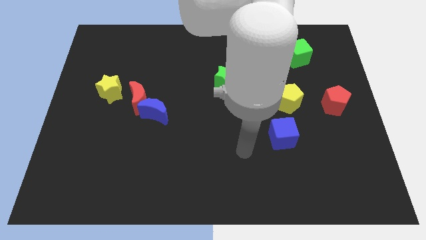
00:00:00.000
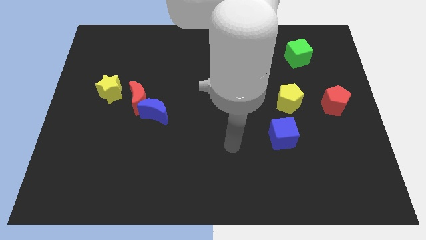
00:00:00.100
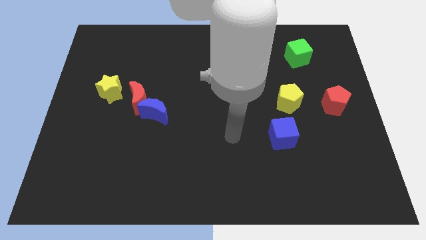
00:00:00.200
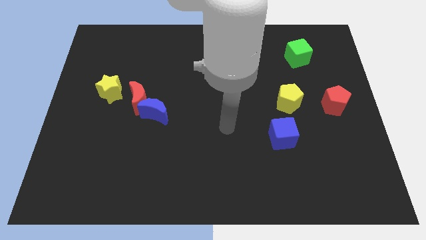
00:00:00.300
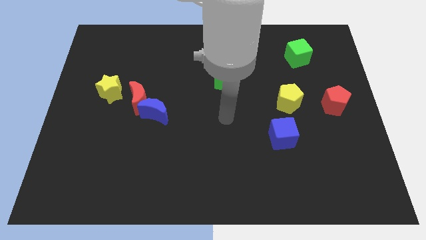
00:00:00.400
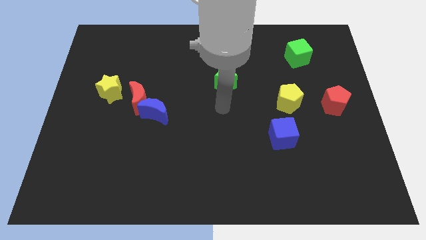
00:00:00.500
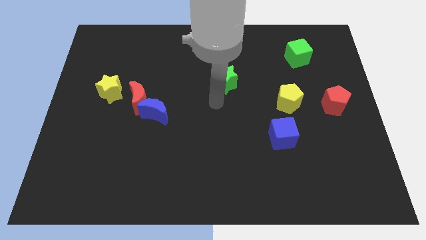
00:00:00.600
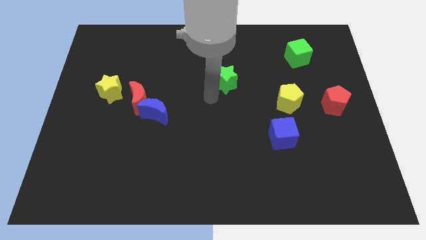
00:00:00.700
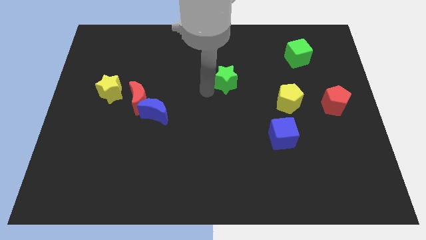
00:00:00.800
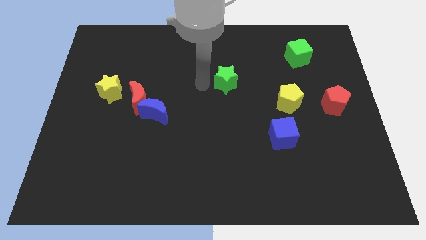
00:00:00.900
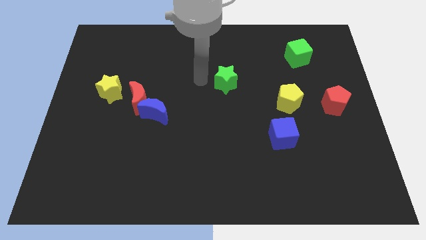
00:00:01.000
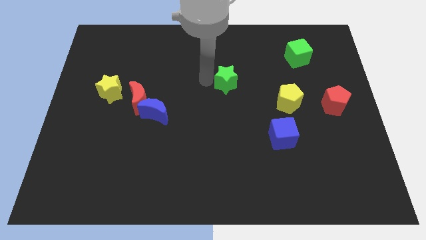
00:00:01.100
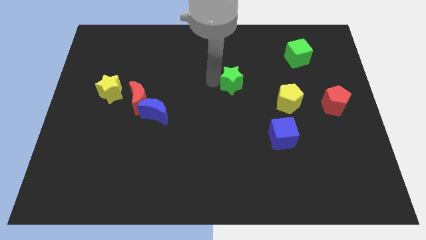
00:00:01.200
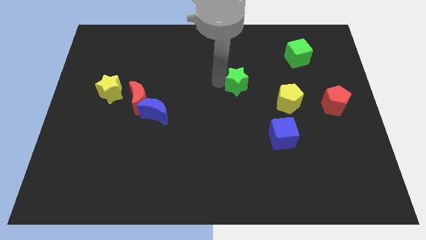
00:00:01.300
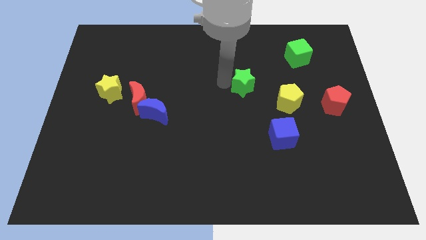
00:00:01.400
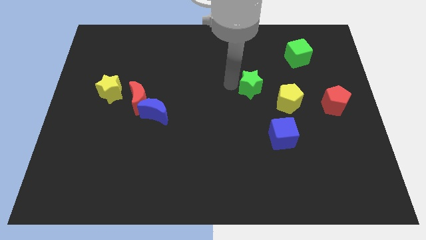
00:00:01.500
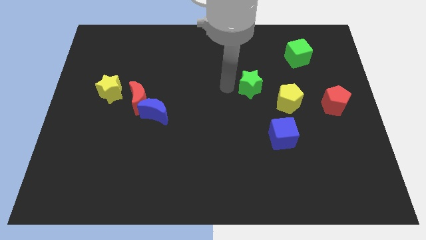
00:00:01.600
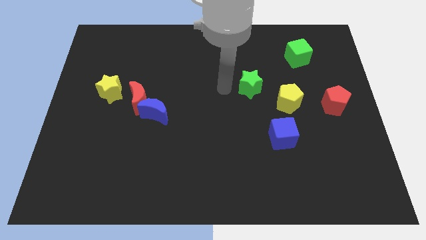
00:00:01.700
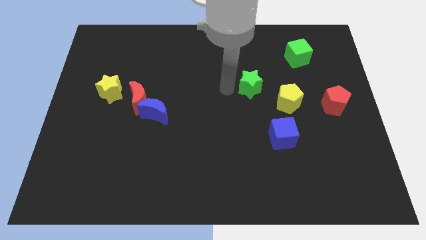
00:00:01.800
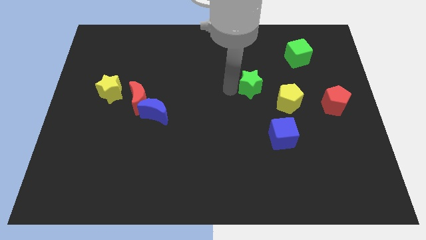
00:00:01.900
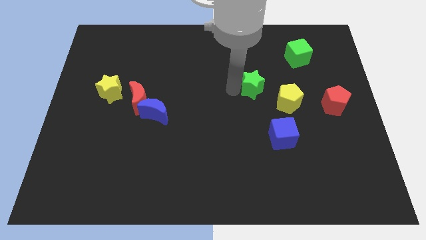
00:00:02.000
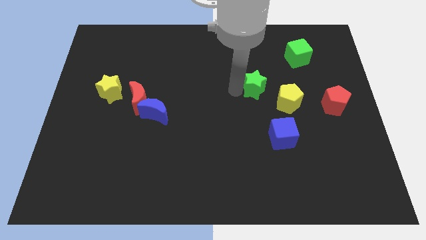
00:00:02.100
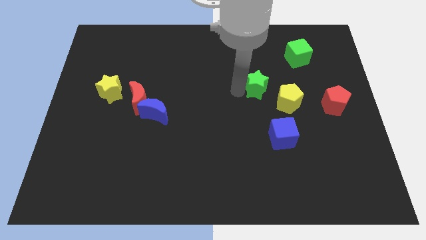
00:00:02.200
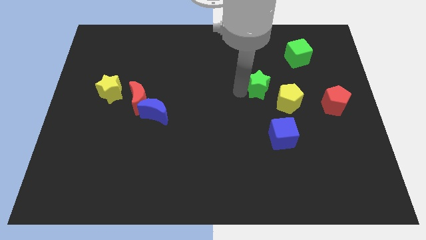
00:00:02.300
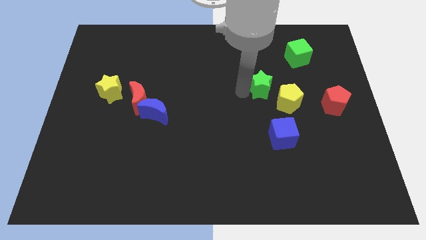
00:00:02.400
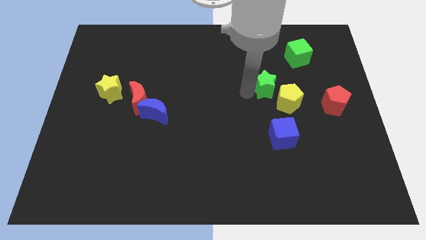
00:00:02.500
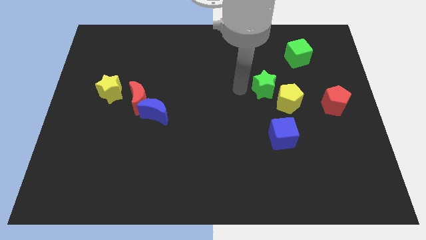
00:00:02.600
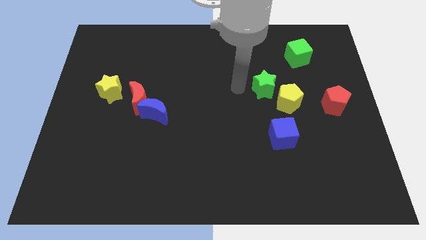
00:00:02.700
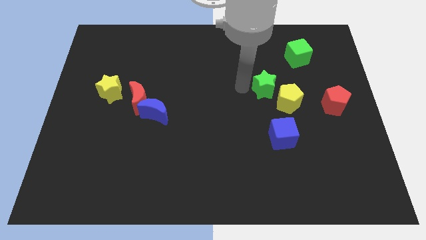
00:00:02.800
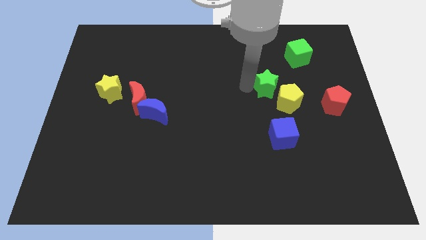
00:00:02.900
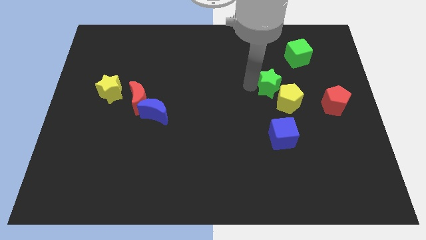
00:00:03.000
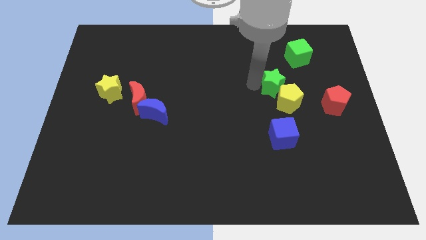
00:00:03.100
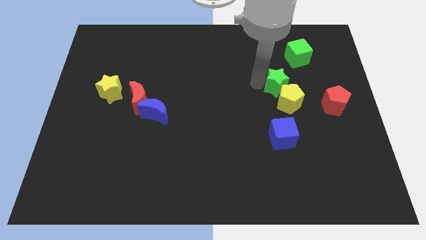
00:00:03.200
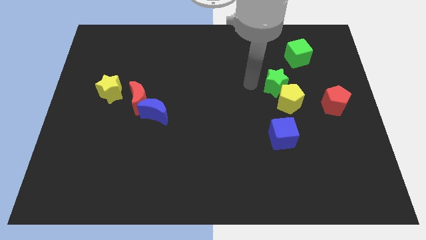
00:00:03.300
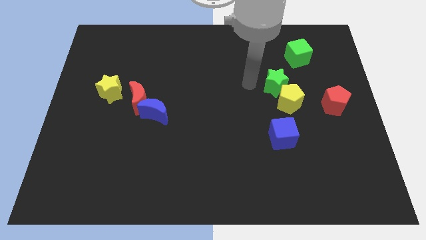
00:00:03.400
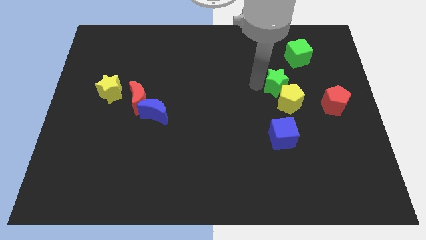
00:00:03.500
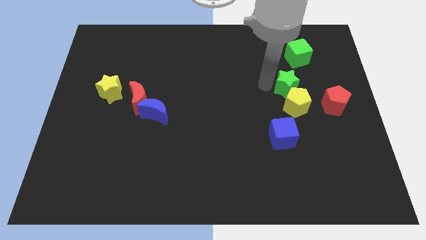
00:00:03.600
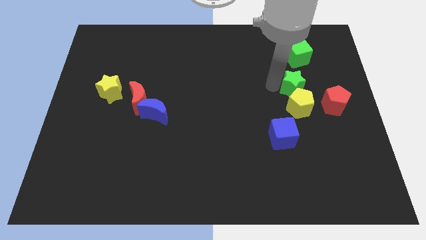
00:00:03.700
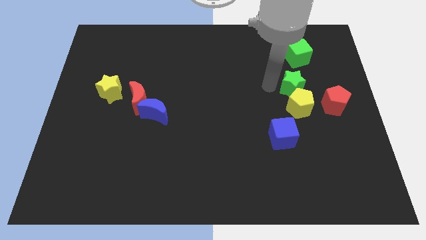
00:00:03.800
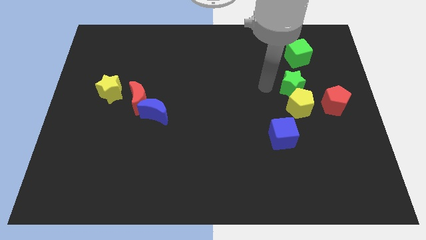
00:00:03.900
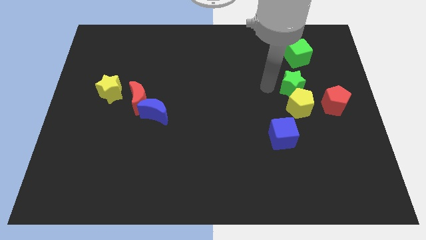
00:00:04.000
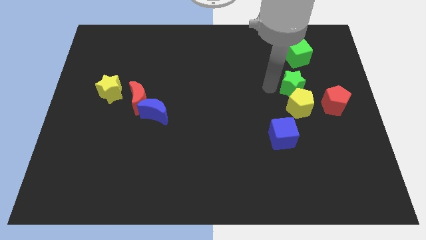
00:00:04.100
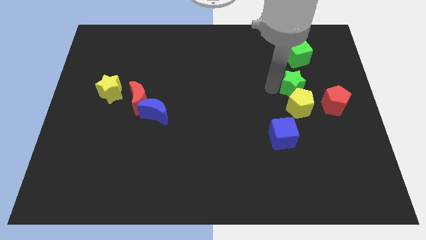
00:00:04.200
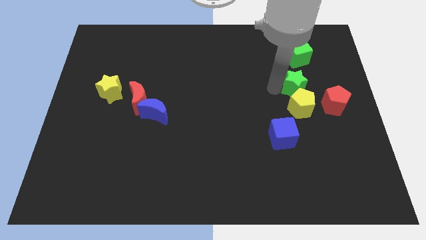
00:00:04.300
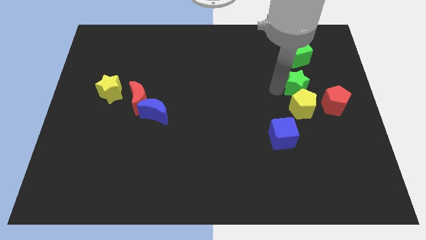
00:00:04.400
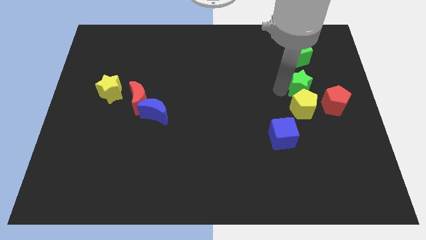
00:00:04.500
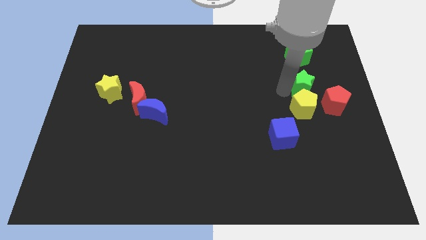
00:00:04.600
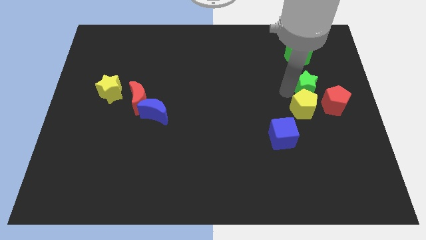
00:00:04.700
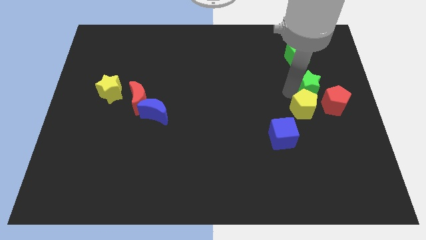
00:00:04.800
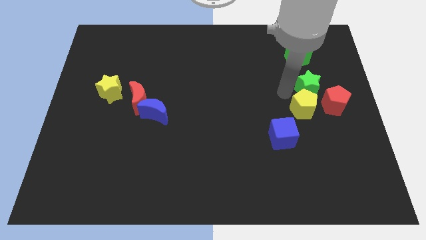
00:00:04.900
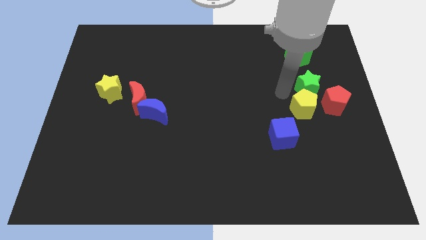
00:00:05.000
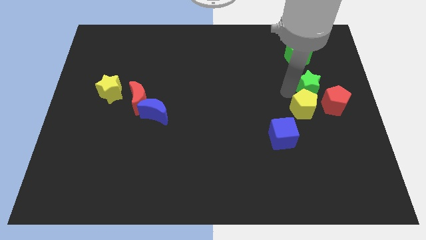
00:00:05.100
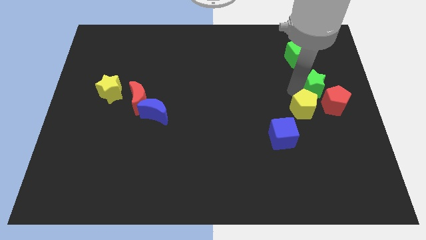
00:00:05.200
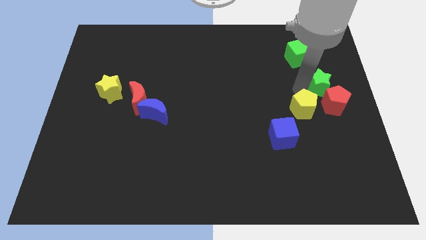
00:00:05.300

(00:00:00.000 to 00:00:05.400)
slide the green star to the right side of the board
